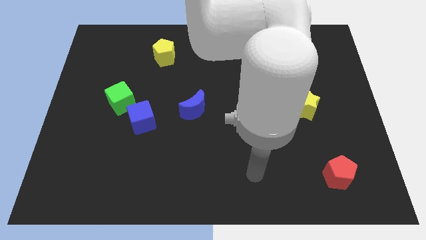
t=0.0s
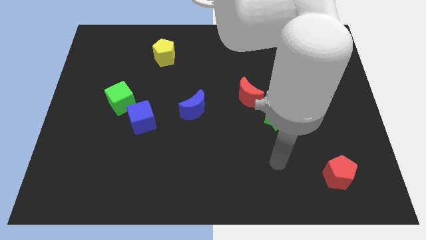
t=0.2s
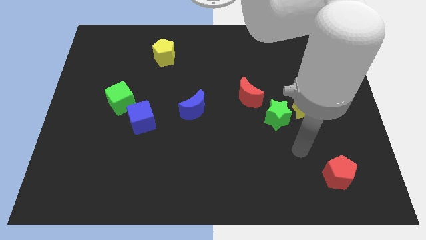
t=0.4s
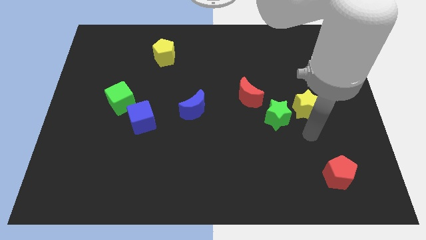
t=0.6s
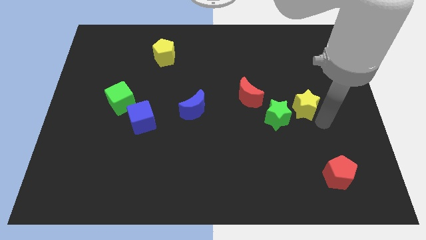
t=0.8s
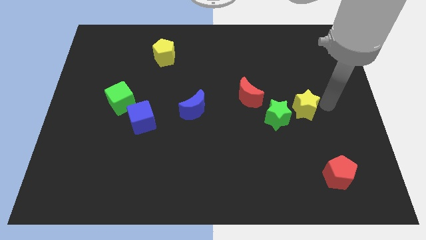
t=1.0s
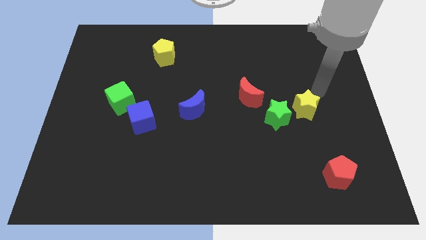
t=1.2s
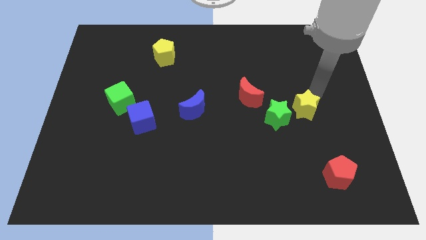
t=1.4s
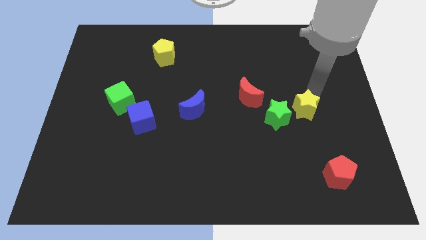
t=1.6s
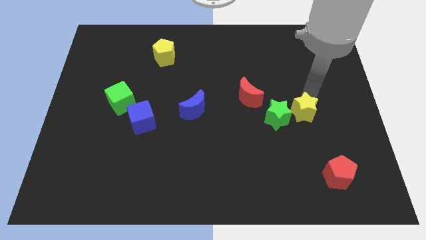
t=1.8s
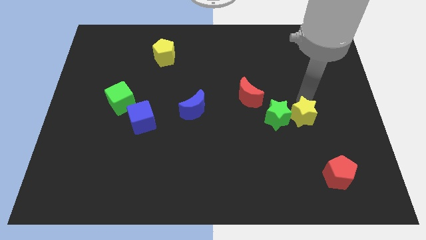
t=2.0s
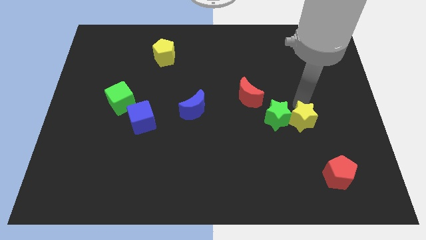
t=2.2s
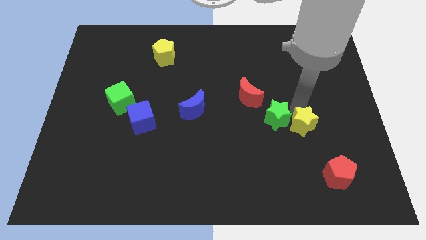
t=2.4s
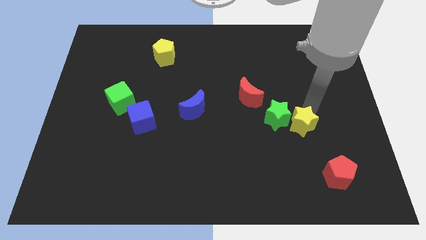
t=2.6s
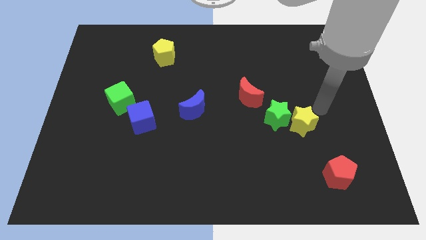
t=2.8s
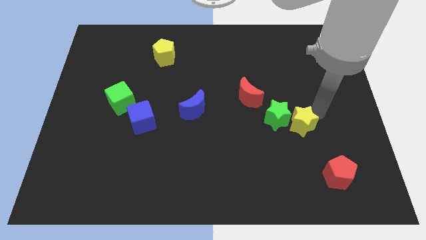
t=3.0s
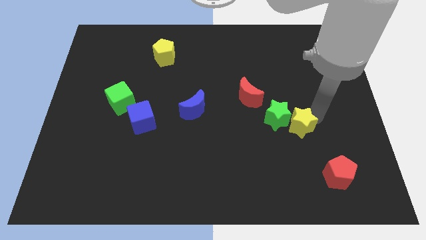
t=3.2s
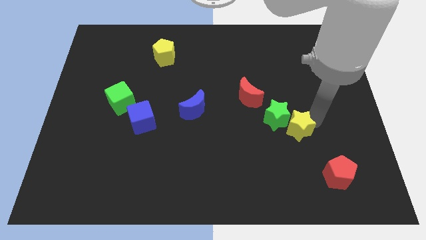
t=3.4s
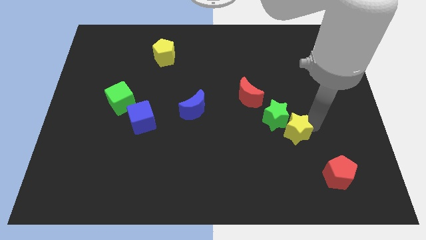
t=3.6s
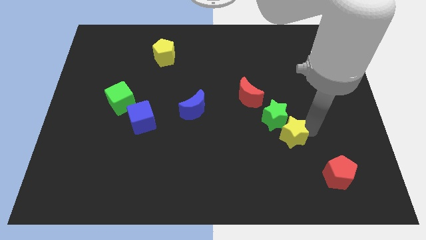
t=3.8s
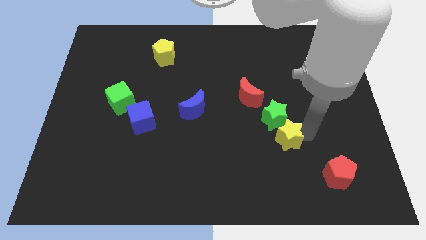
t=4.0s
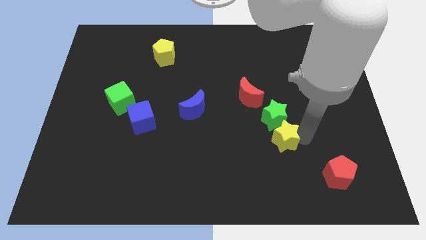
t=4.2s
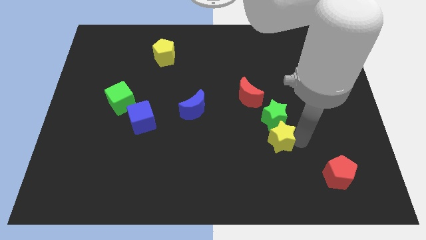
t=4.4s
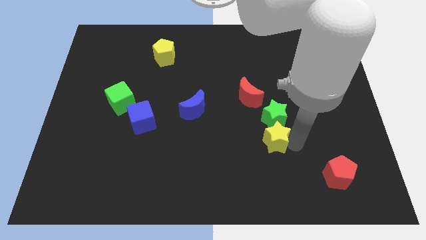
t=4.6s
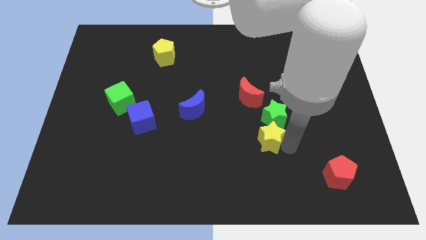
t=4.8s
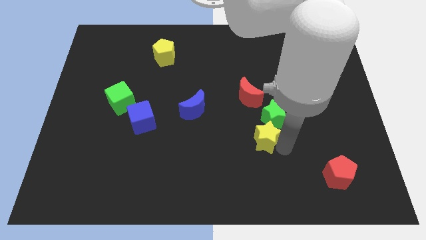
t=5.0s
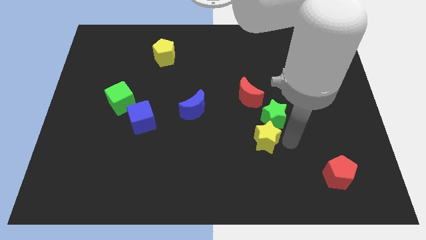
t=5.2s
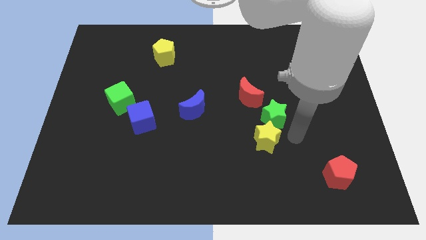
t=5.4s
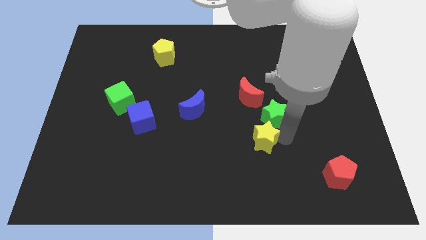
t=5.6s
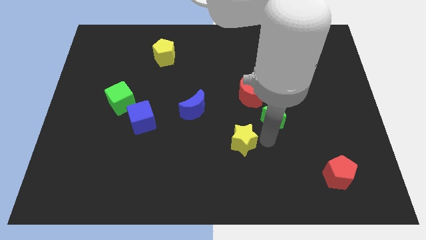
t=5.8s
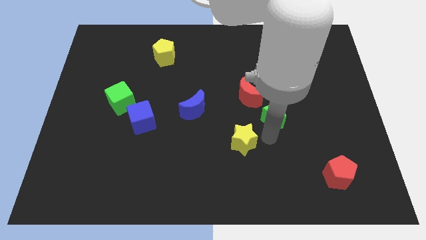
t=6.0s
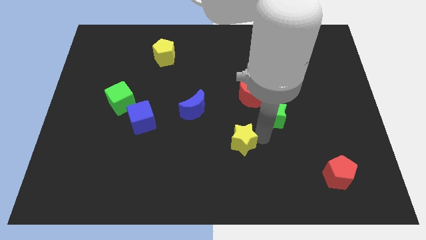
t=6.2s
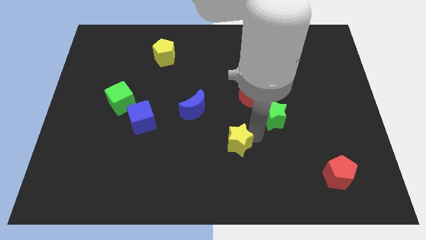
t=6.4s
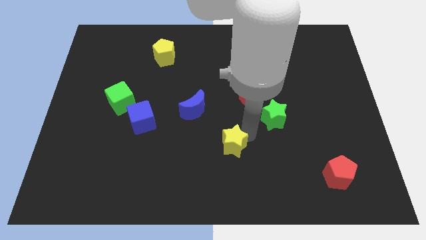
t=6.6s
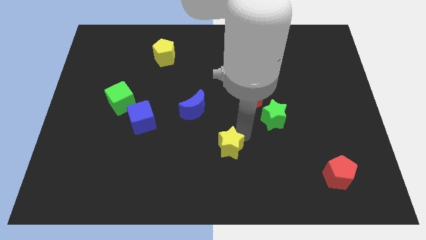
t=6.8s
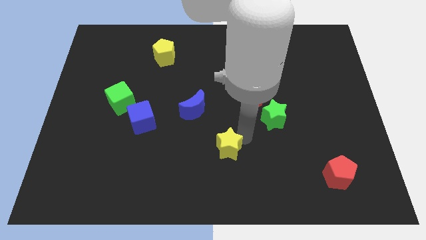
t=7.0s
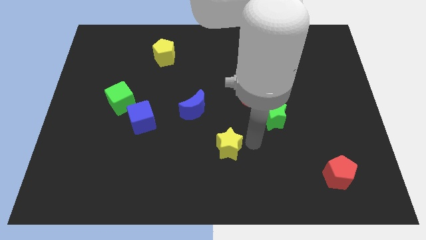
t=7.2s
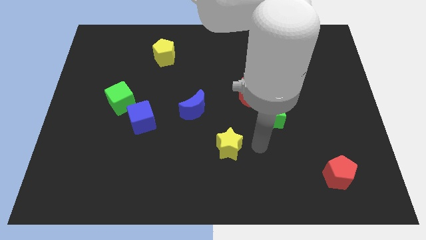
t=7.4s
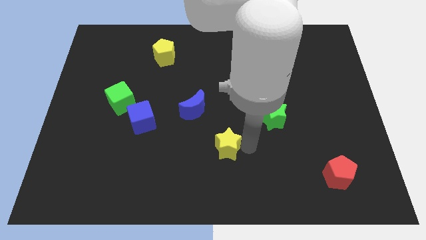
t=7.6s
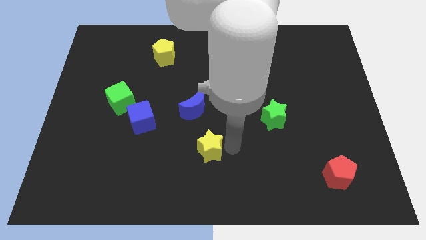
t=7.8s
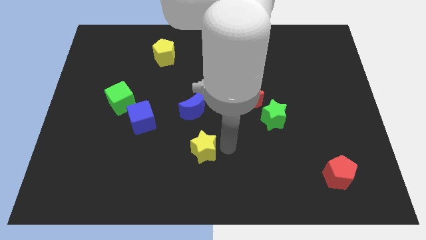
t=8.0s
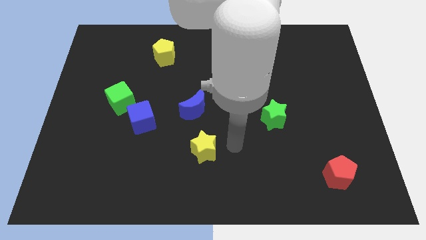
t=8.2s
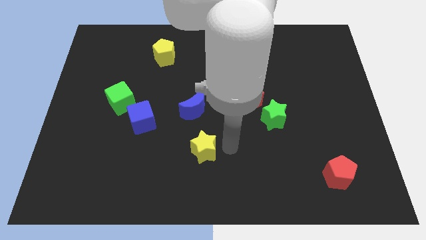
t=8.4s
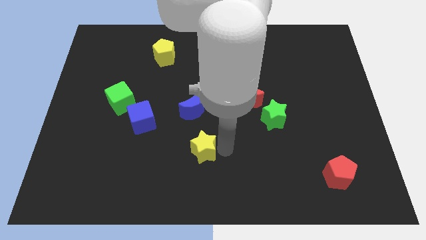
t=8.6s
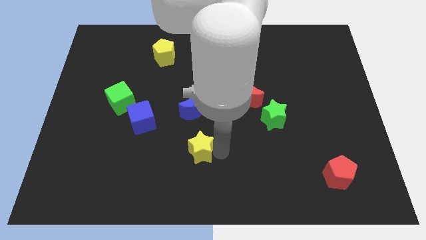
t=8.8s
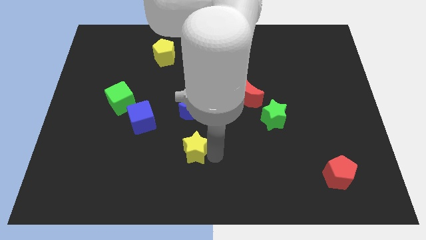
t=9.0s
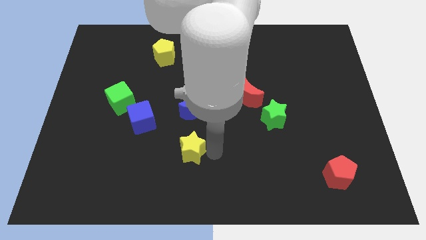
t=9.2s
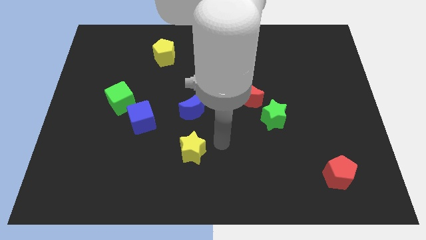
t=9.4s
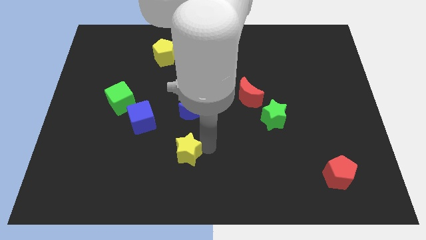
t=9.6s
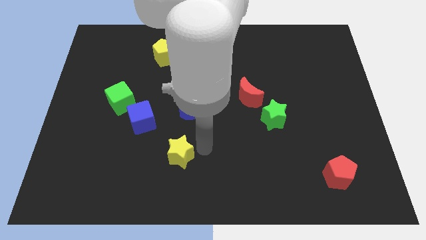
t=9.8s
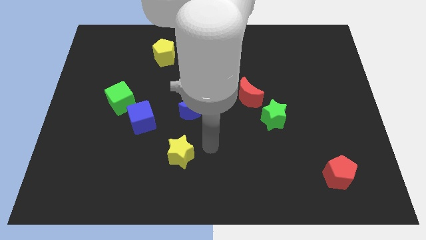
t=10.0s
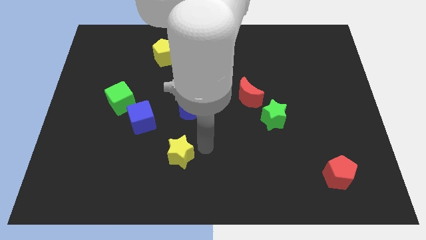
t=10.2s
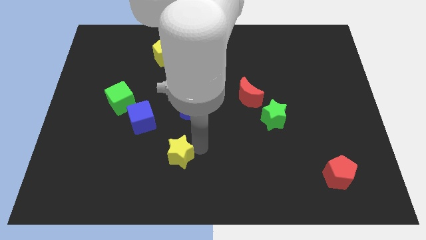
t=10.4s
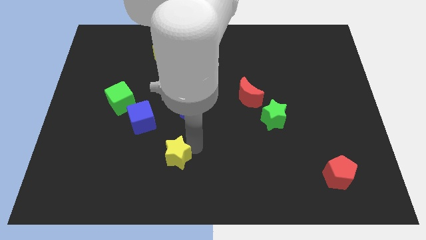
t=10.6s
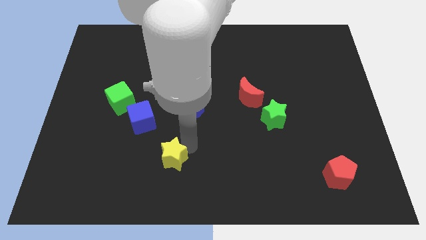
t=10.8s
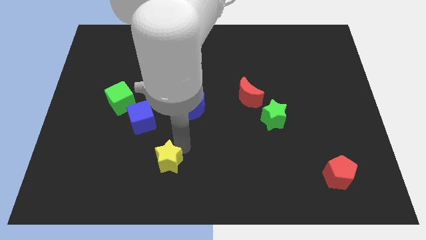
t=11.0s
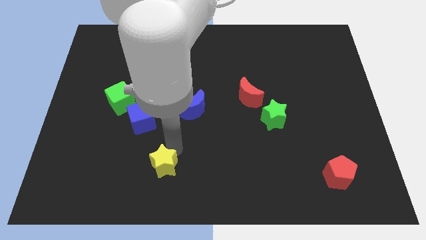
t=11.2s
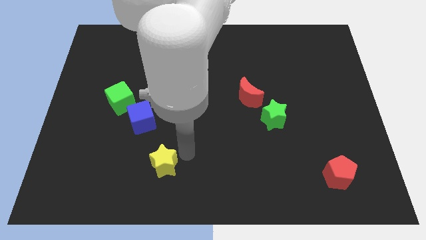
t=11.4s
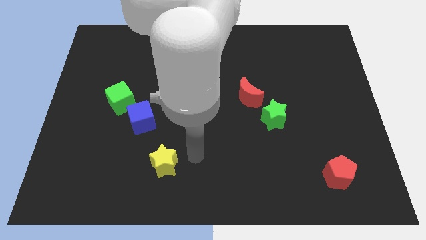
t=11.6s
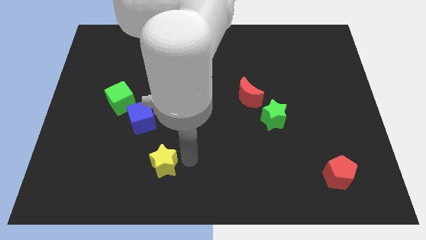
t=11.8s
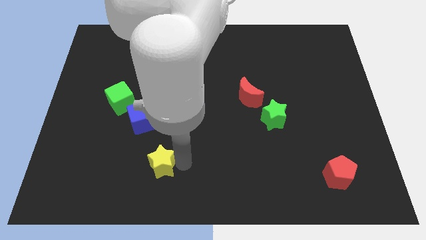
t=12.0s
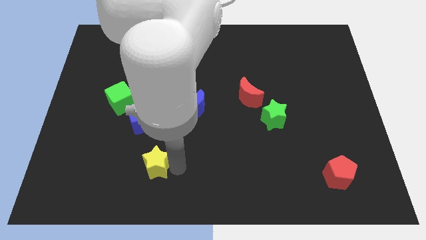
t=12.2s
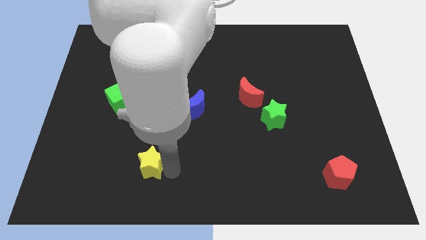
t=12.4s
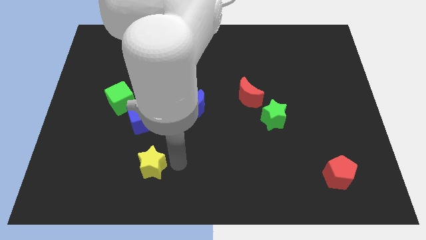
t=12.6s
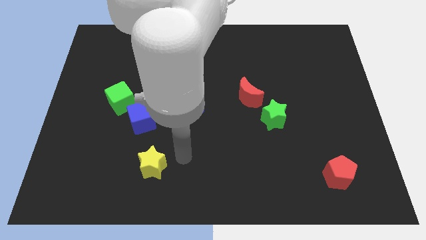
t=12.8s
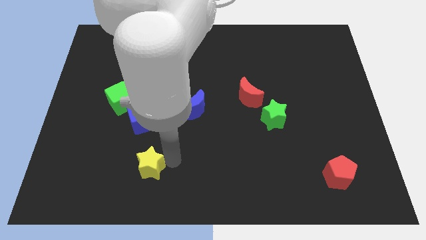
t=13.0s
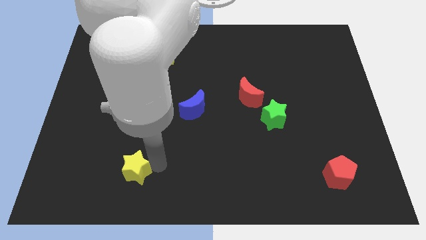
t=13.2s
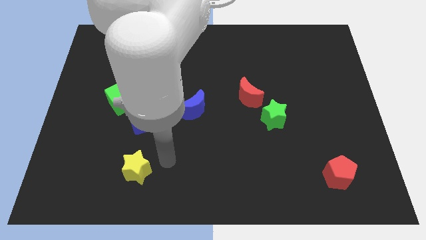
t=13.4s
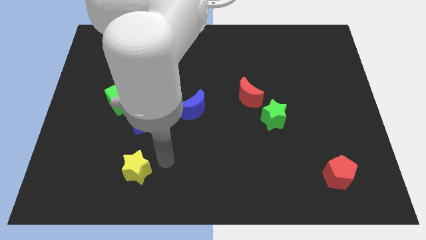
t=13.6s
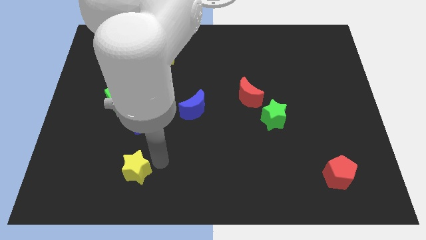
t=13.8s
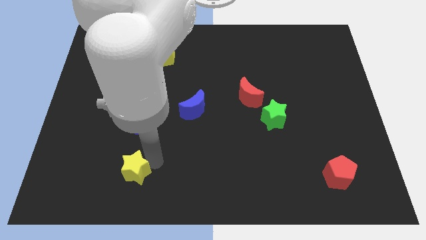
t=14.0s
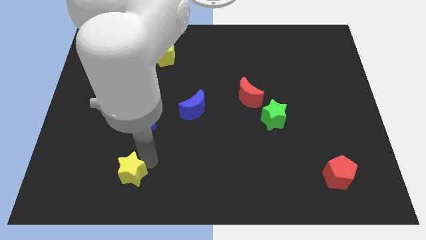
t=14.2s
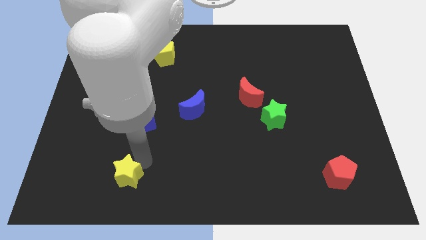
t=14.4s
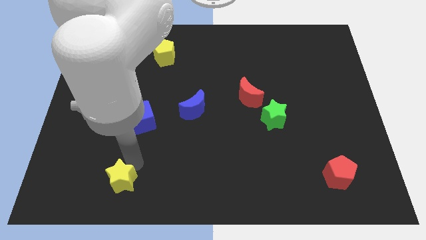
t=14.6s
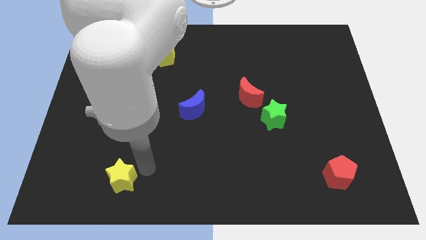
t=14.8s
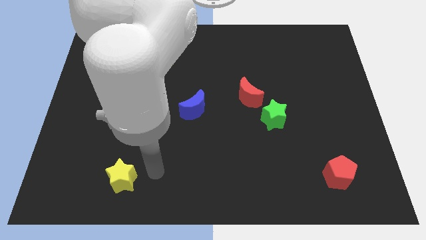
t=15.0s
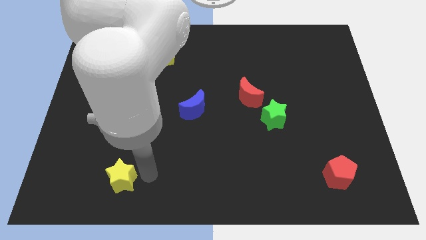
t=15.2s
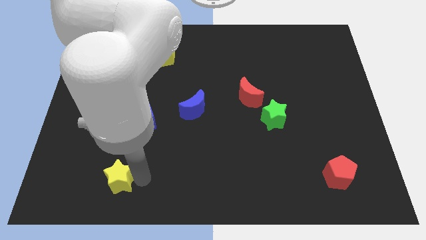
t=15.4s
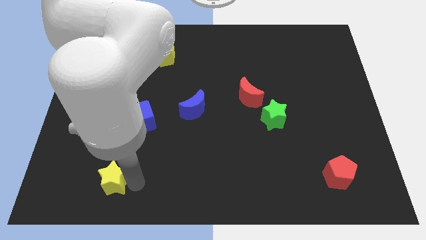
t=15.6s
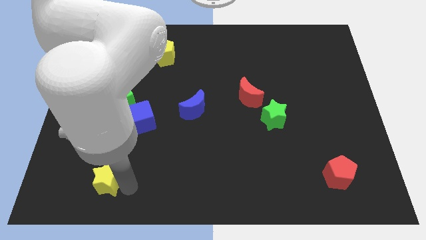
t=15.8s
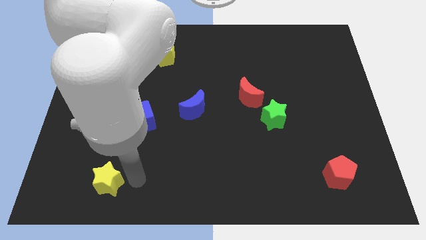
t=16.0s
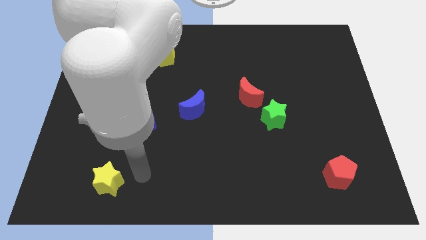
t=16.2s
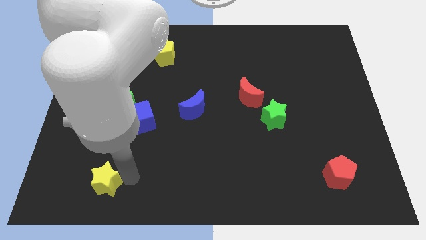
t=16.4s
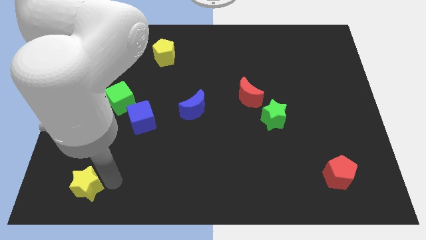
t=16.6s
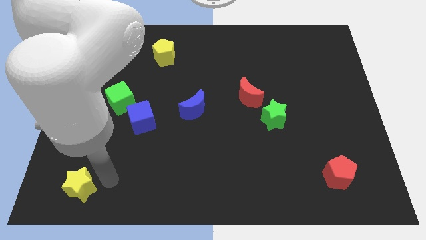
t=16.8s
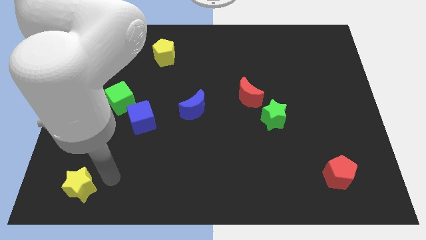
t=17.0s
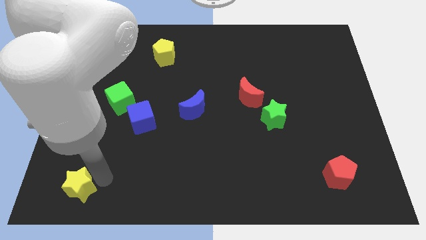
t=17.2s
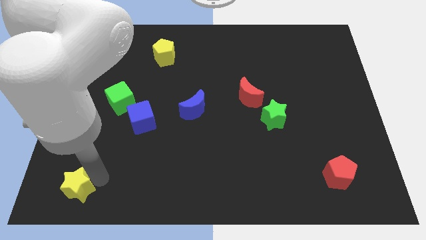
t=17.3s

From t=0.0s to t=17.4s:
push the yellow star to the lower left corner
